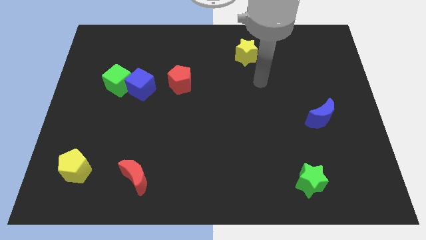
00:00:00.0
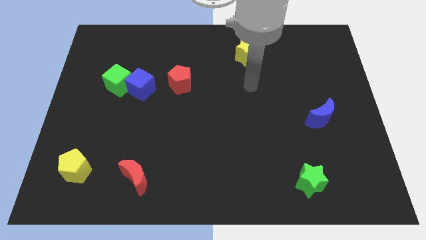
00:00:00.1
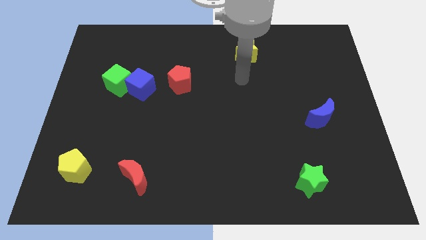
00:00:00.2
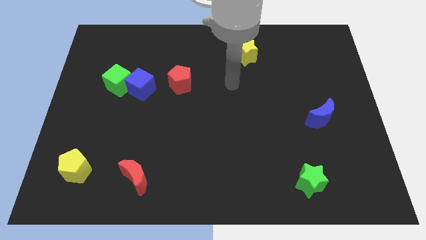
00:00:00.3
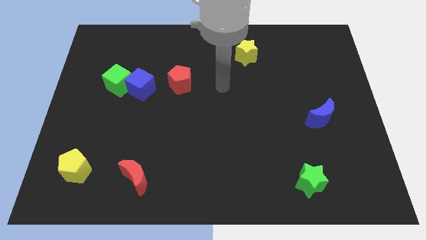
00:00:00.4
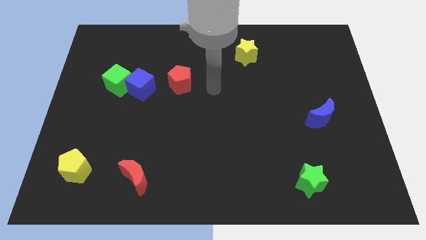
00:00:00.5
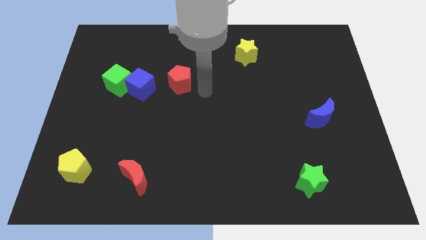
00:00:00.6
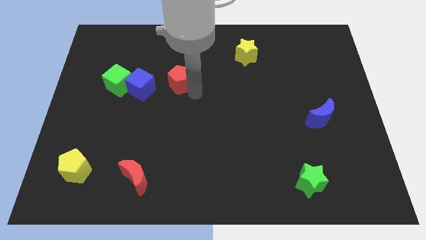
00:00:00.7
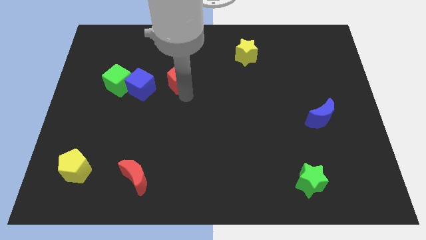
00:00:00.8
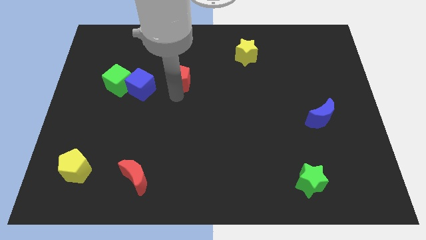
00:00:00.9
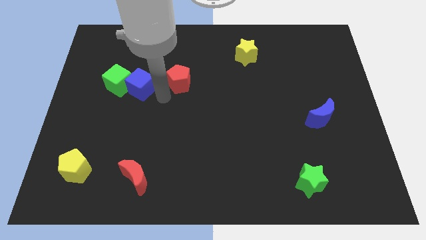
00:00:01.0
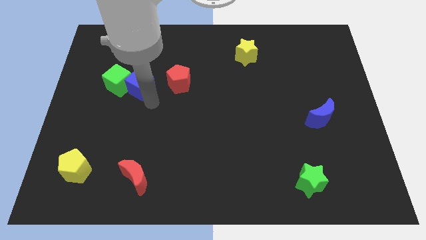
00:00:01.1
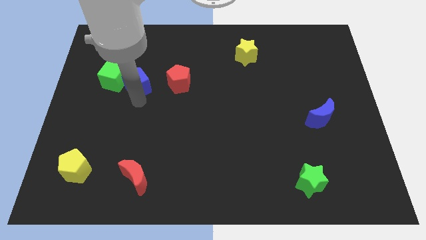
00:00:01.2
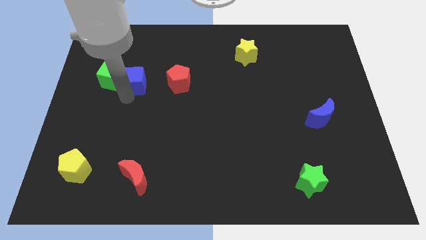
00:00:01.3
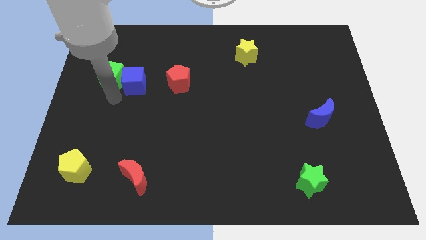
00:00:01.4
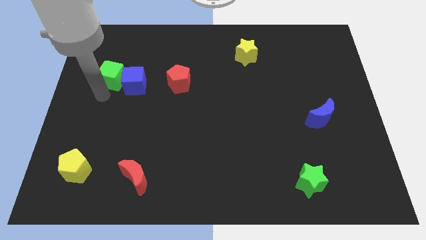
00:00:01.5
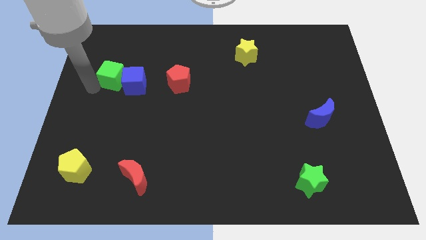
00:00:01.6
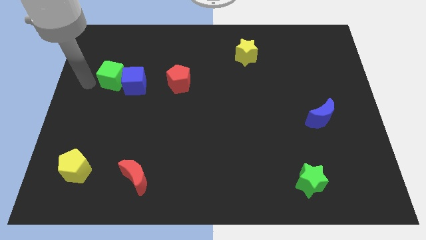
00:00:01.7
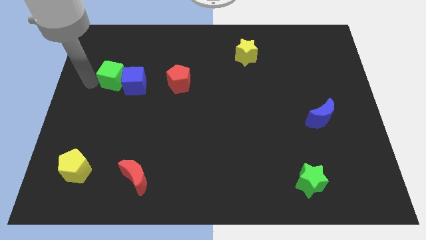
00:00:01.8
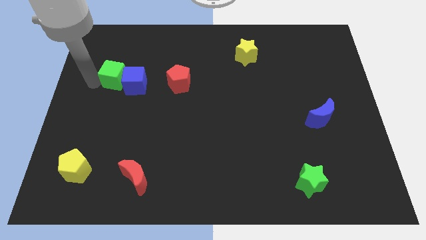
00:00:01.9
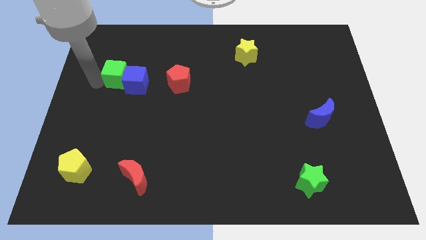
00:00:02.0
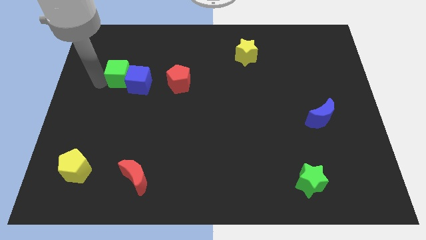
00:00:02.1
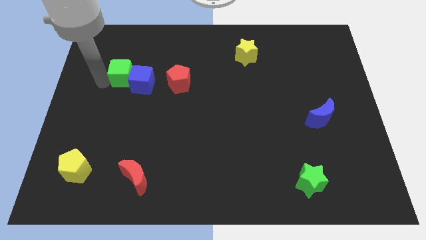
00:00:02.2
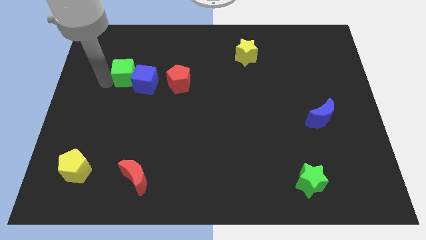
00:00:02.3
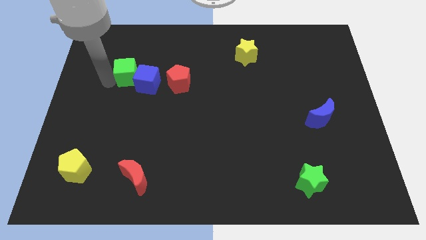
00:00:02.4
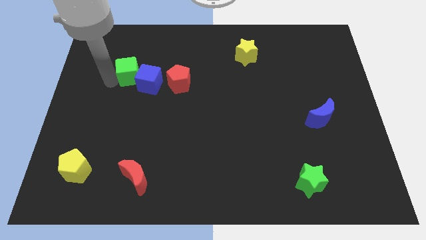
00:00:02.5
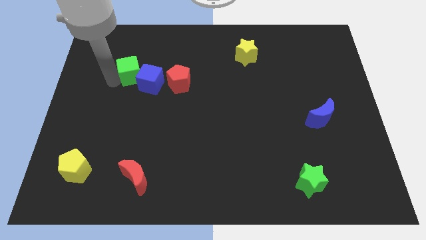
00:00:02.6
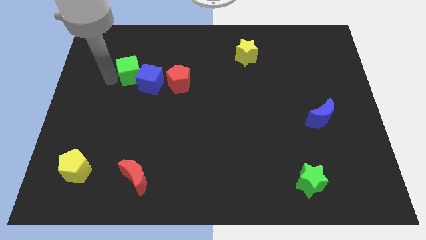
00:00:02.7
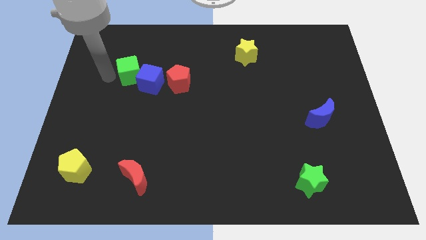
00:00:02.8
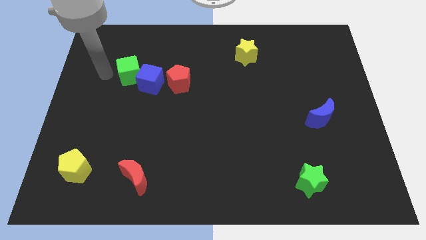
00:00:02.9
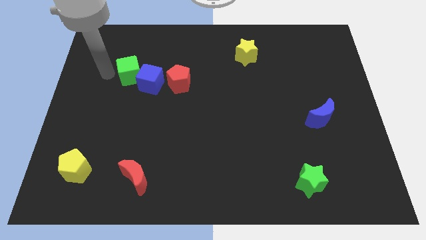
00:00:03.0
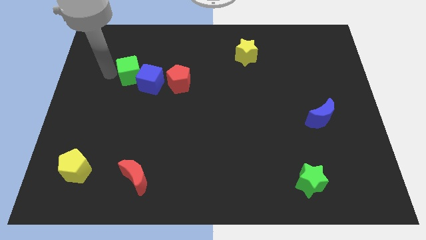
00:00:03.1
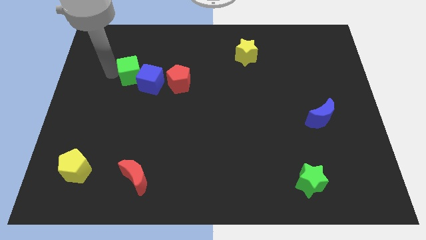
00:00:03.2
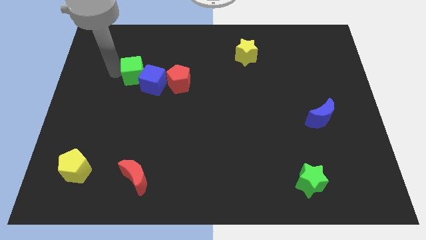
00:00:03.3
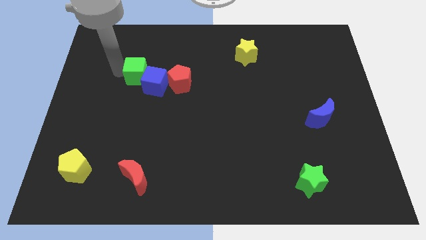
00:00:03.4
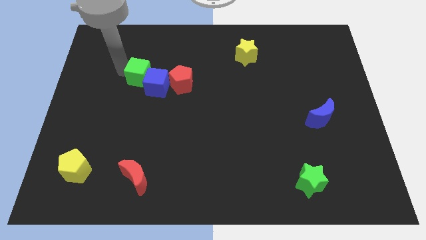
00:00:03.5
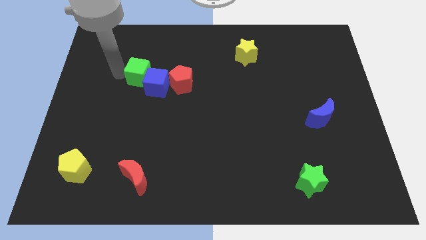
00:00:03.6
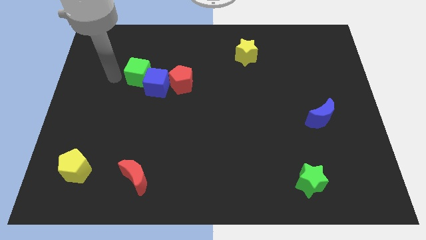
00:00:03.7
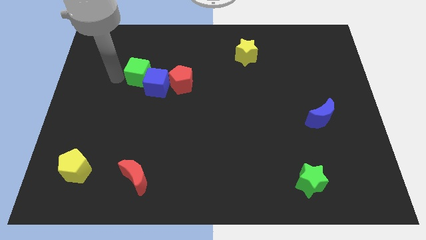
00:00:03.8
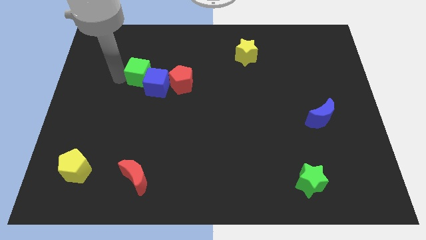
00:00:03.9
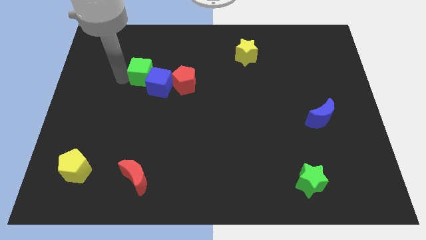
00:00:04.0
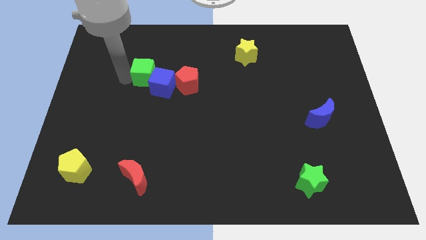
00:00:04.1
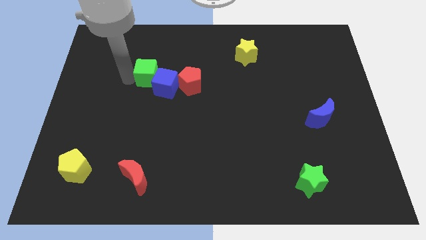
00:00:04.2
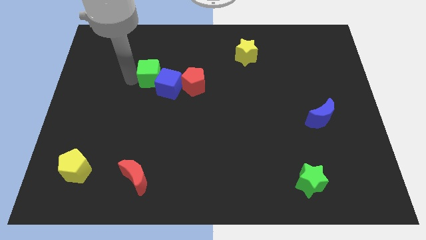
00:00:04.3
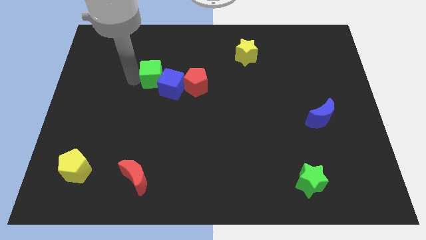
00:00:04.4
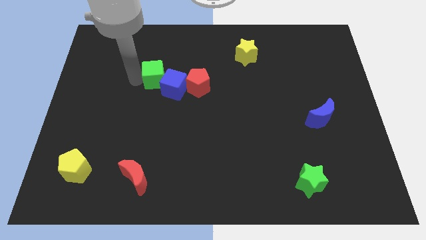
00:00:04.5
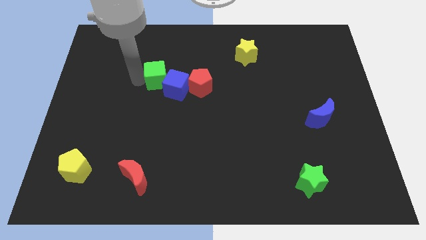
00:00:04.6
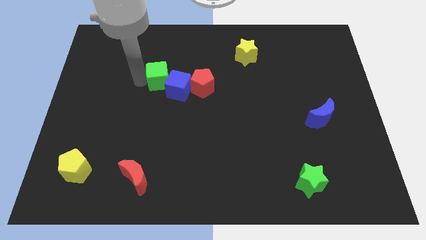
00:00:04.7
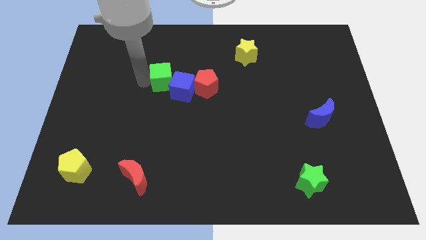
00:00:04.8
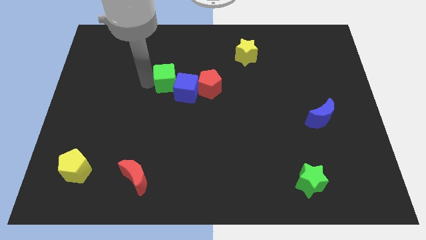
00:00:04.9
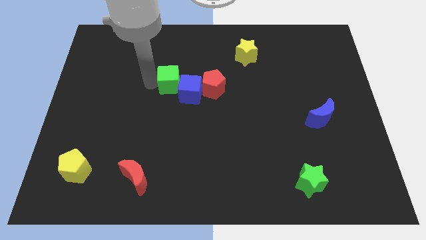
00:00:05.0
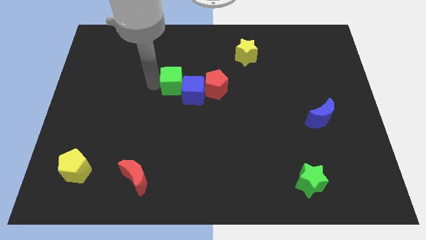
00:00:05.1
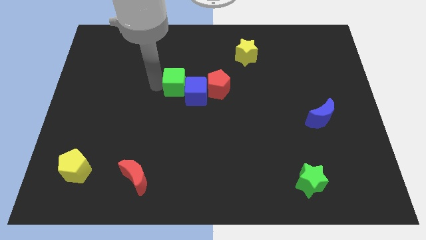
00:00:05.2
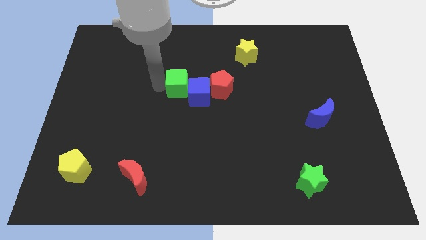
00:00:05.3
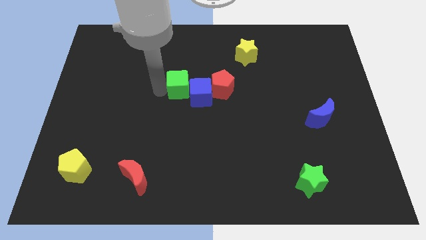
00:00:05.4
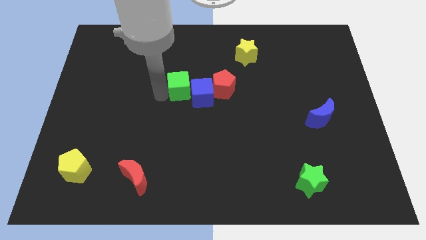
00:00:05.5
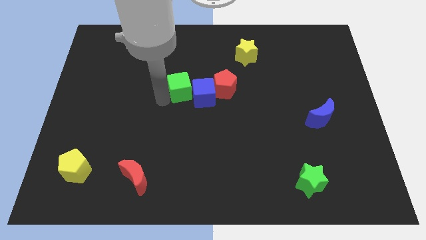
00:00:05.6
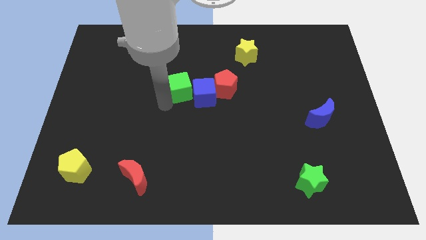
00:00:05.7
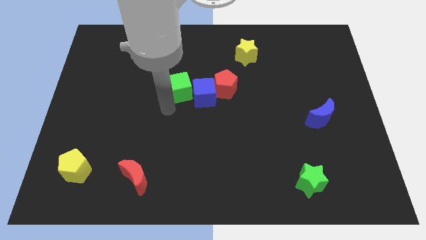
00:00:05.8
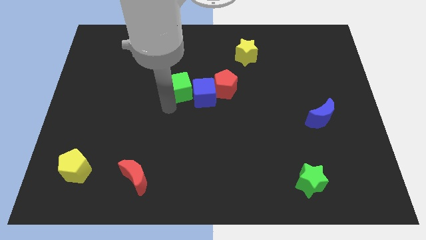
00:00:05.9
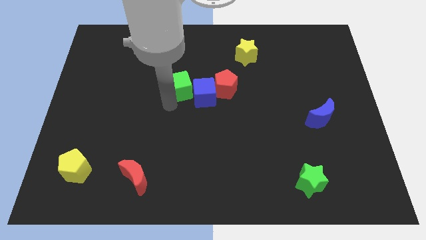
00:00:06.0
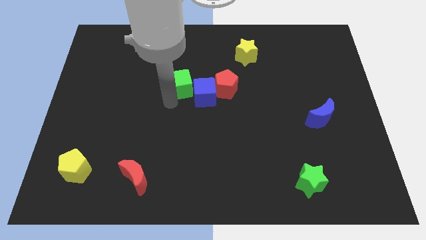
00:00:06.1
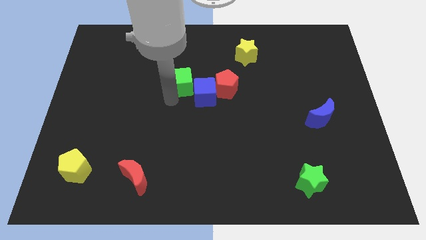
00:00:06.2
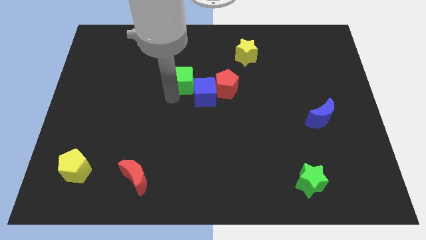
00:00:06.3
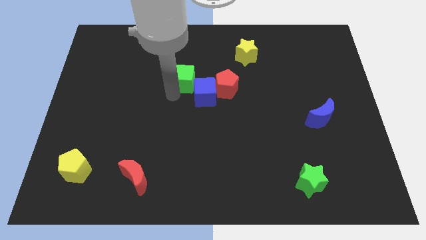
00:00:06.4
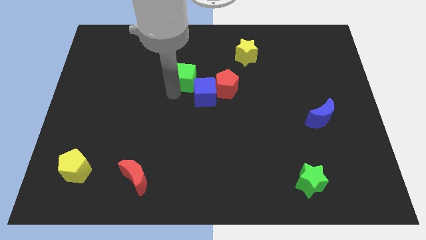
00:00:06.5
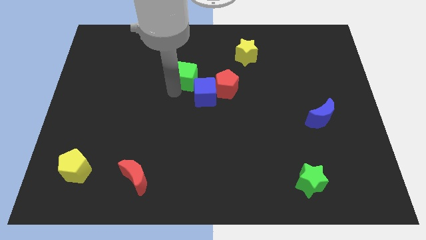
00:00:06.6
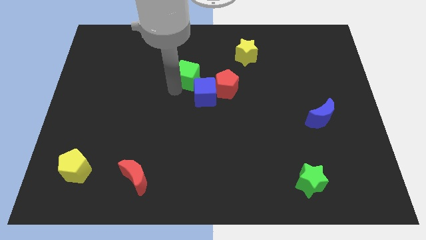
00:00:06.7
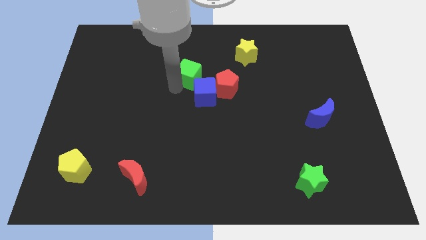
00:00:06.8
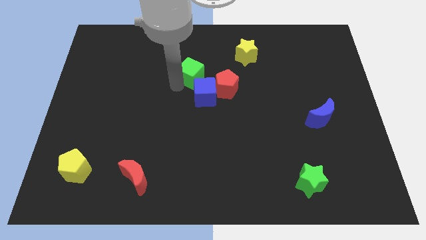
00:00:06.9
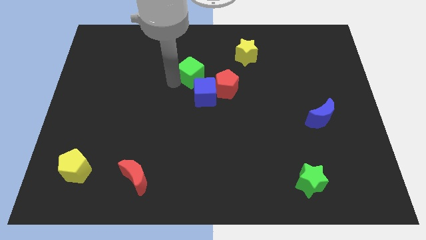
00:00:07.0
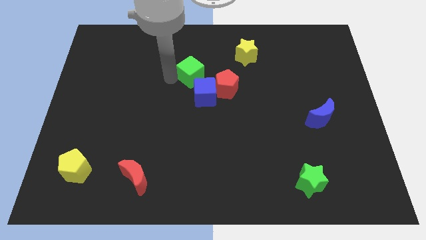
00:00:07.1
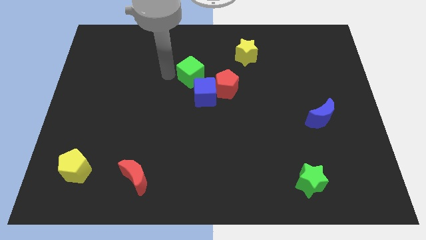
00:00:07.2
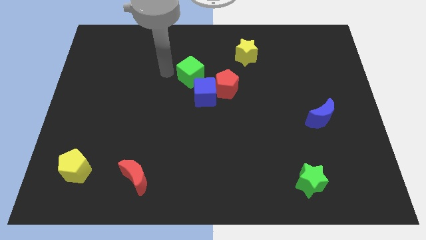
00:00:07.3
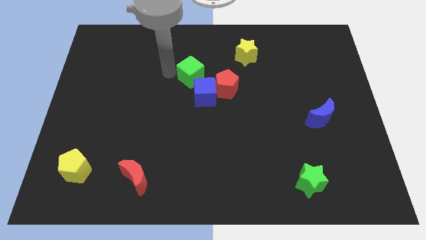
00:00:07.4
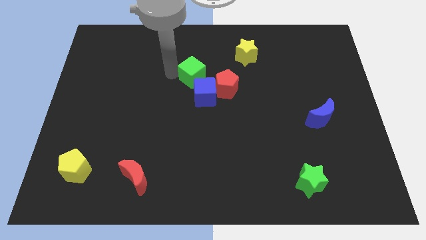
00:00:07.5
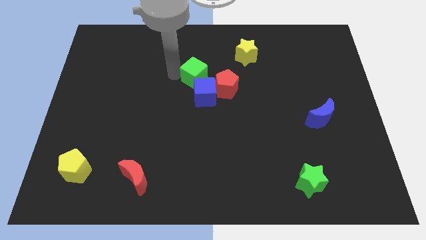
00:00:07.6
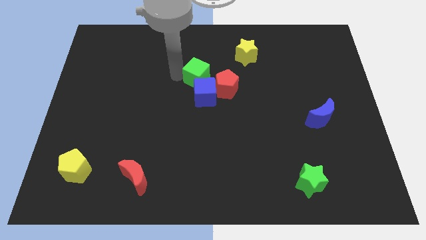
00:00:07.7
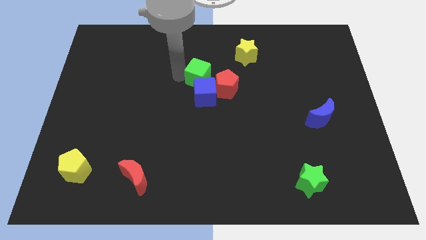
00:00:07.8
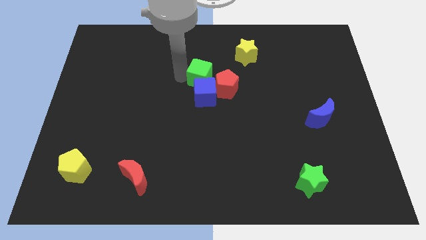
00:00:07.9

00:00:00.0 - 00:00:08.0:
move the green cube to the right
